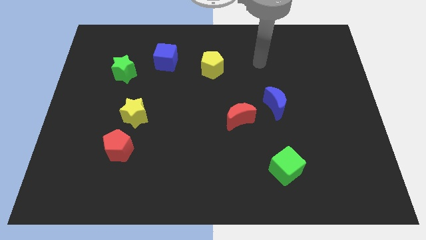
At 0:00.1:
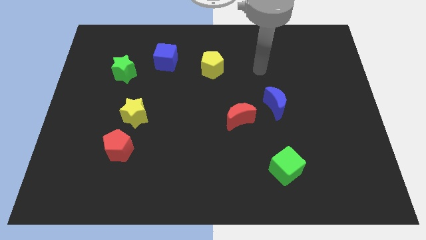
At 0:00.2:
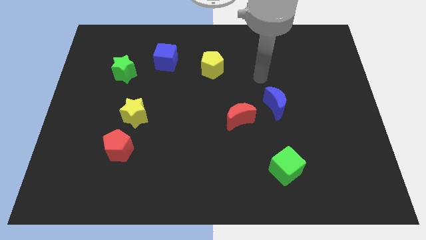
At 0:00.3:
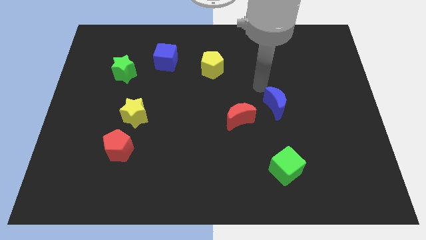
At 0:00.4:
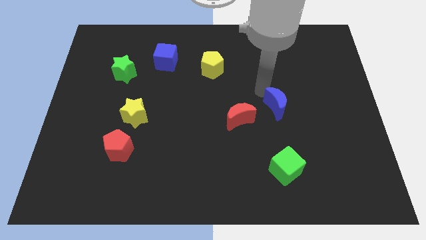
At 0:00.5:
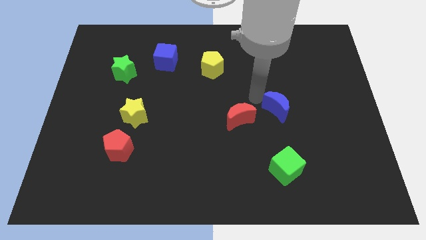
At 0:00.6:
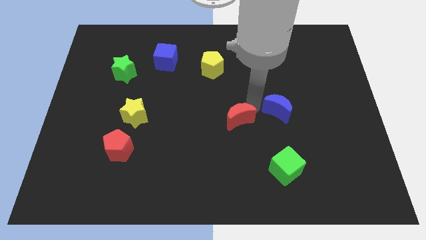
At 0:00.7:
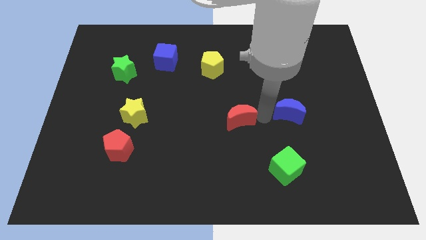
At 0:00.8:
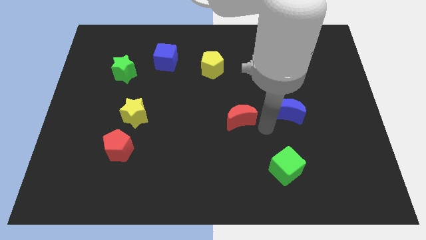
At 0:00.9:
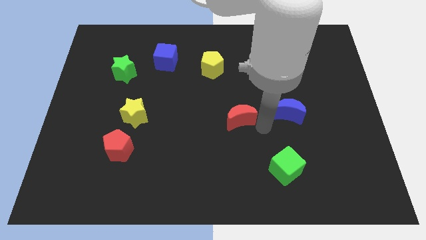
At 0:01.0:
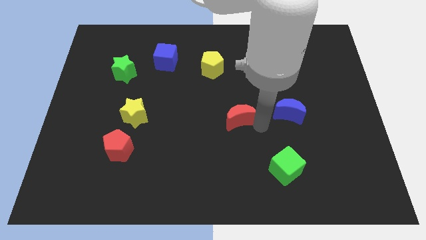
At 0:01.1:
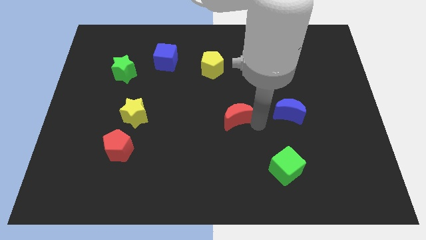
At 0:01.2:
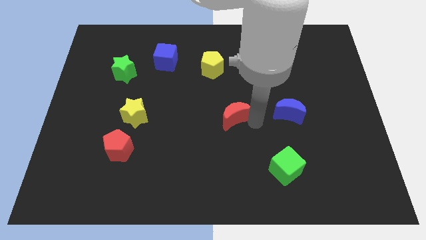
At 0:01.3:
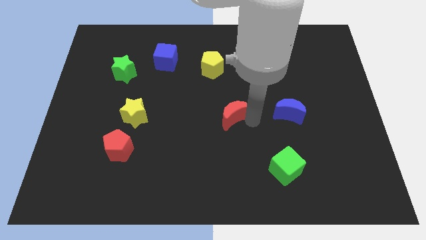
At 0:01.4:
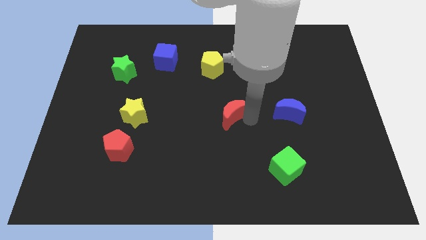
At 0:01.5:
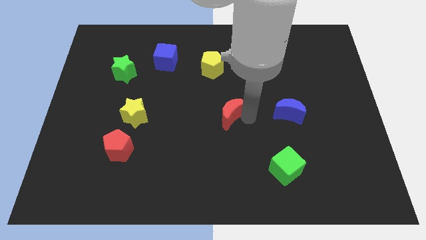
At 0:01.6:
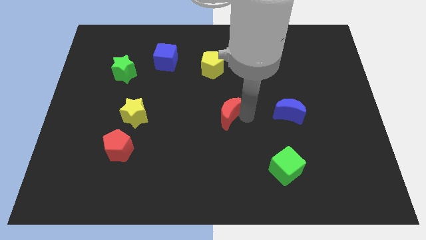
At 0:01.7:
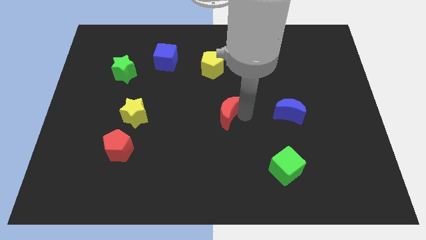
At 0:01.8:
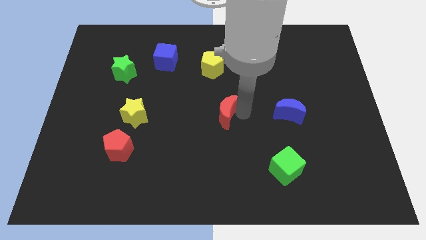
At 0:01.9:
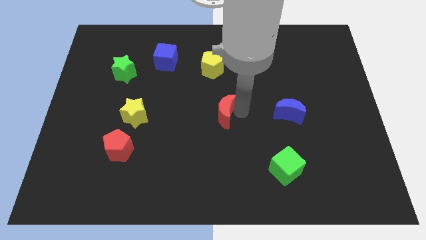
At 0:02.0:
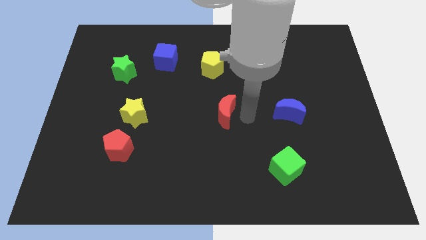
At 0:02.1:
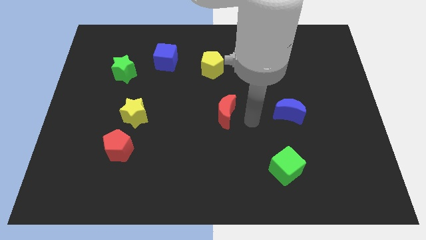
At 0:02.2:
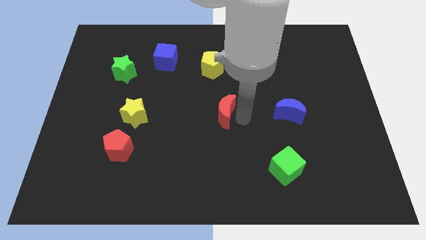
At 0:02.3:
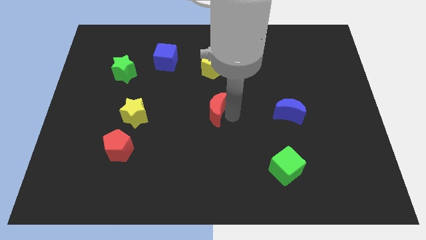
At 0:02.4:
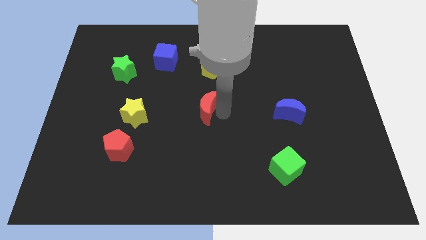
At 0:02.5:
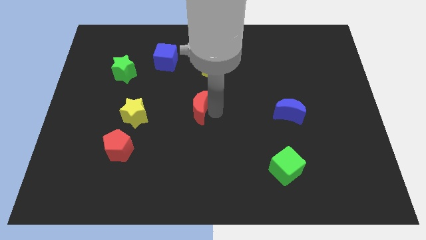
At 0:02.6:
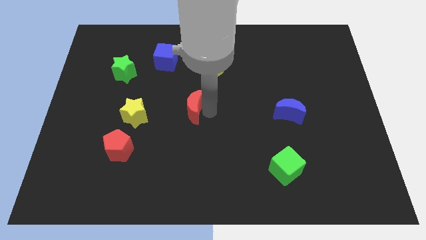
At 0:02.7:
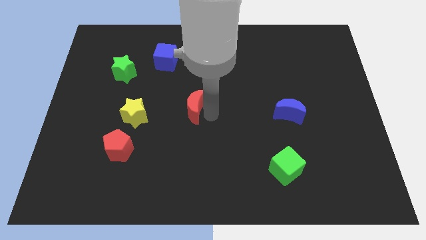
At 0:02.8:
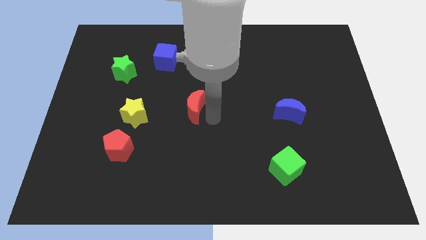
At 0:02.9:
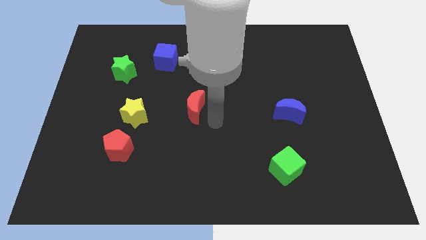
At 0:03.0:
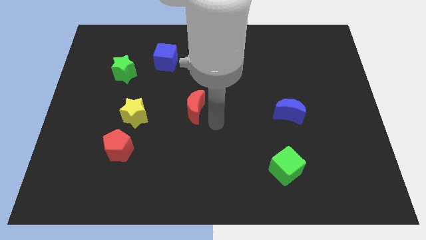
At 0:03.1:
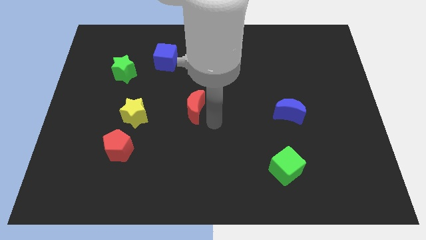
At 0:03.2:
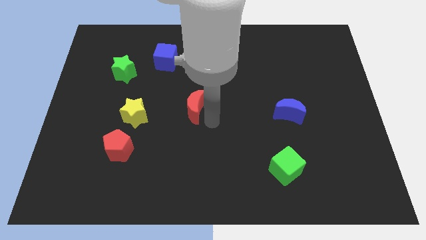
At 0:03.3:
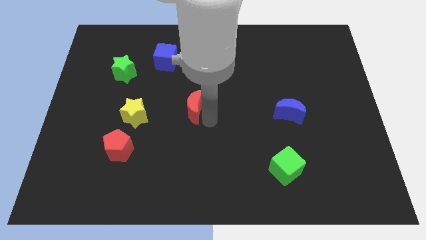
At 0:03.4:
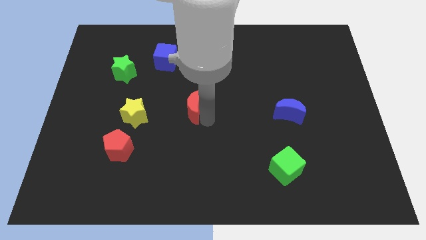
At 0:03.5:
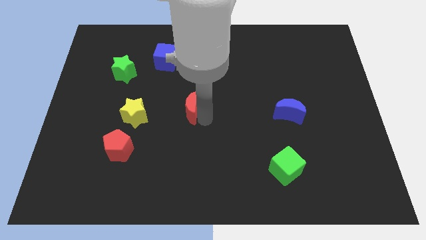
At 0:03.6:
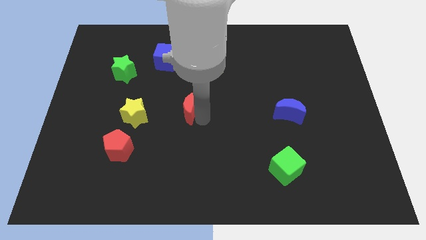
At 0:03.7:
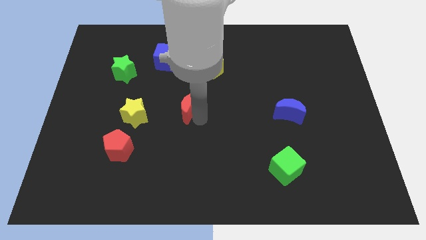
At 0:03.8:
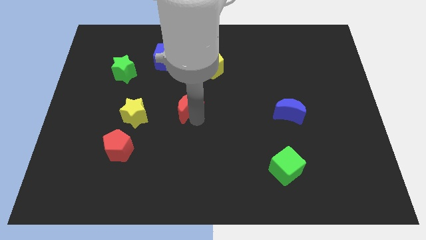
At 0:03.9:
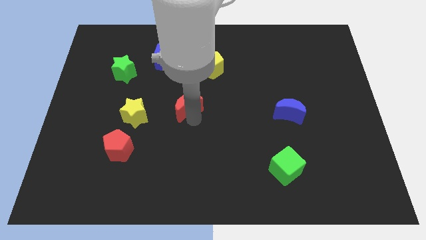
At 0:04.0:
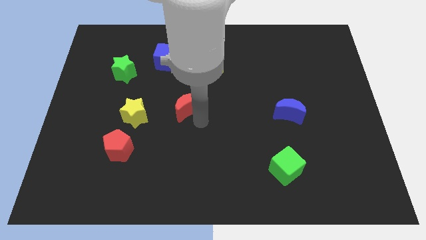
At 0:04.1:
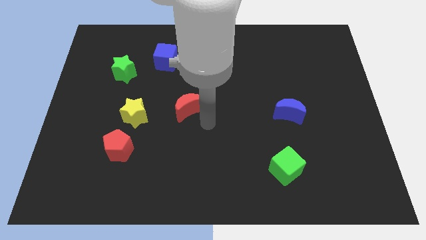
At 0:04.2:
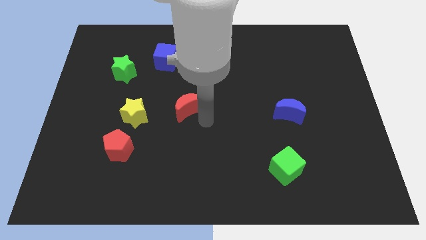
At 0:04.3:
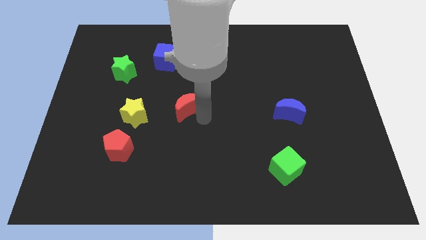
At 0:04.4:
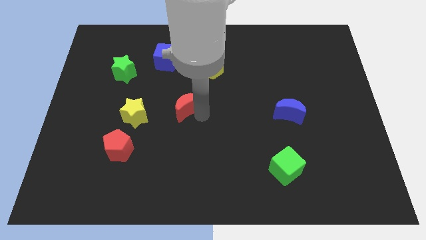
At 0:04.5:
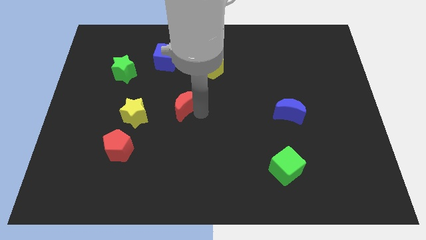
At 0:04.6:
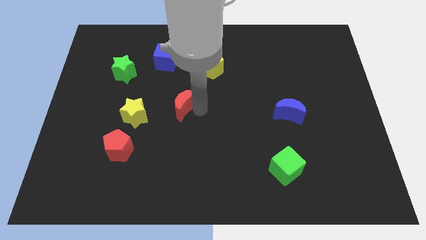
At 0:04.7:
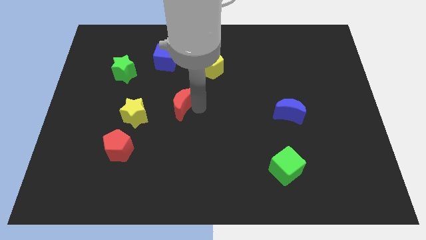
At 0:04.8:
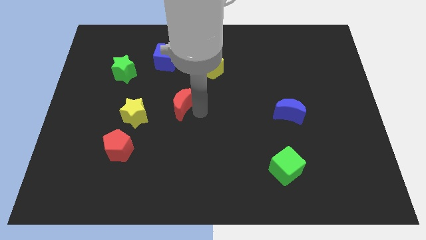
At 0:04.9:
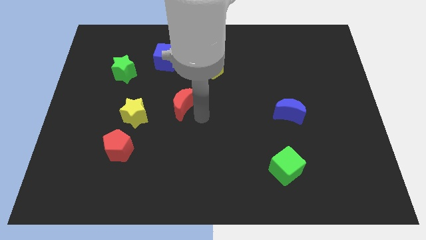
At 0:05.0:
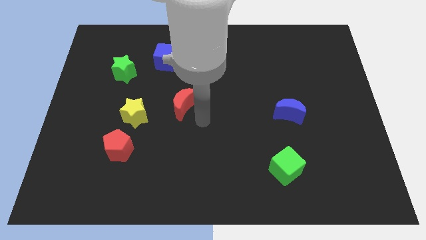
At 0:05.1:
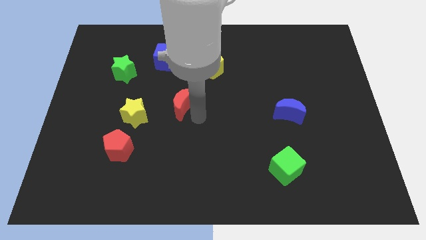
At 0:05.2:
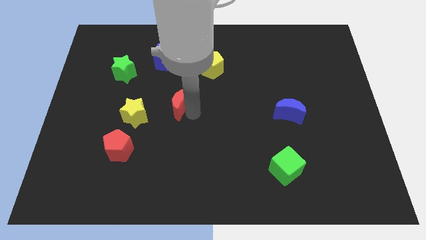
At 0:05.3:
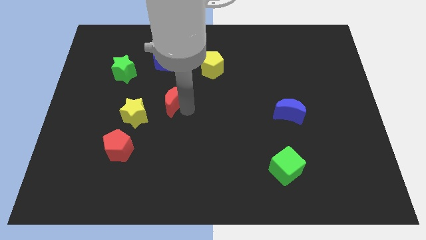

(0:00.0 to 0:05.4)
slide the red moon to the bottom side of the blue cube

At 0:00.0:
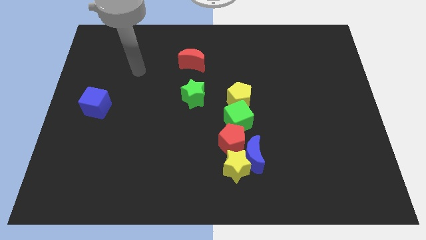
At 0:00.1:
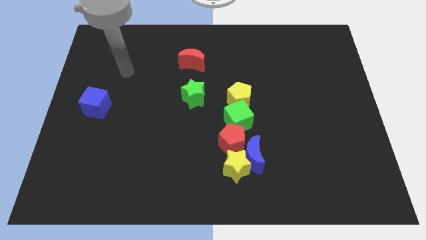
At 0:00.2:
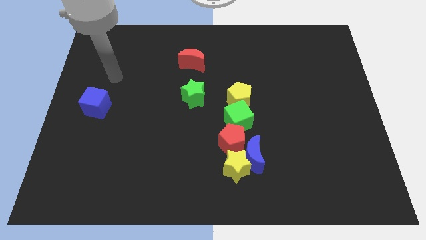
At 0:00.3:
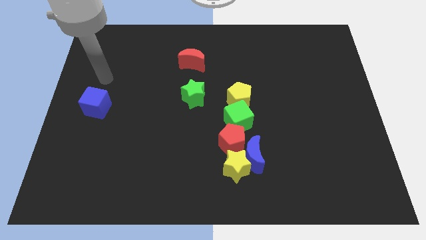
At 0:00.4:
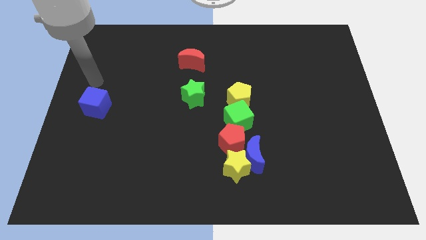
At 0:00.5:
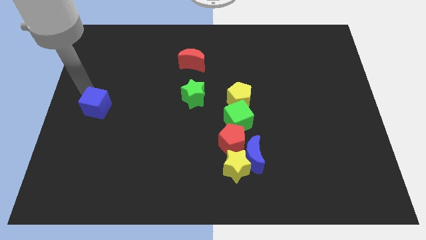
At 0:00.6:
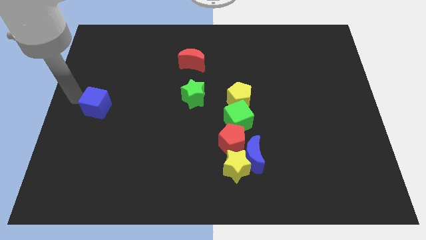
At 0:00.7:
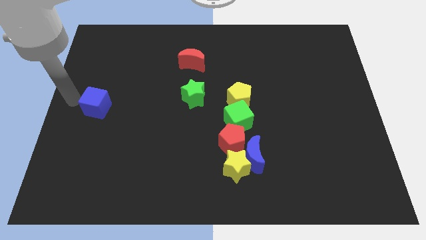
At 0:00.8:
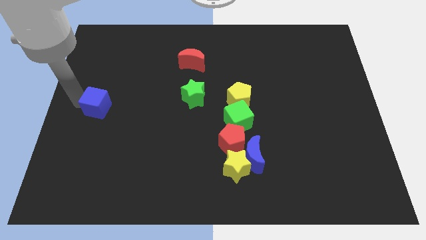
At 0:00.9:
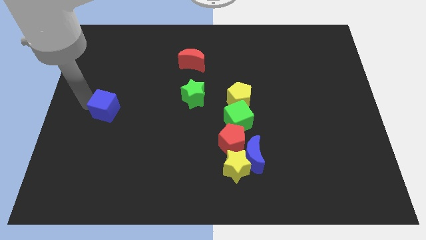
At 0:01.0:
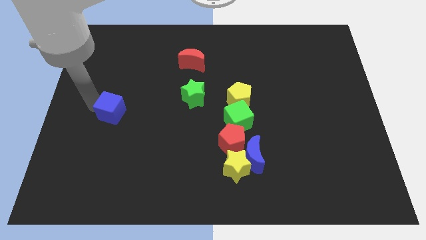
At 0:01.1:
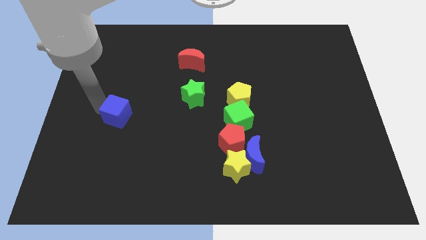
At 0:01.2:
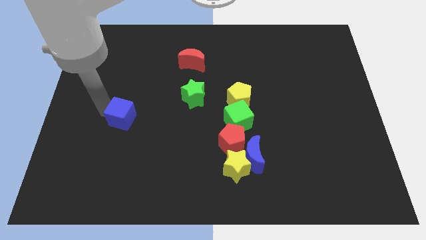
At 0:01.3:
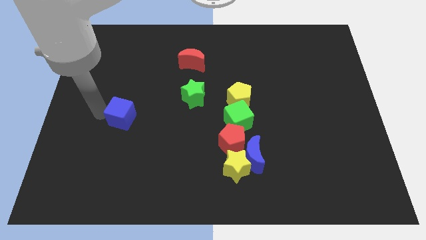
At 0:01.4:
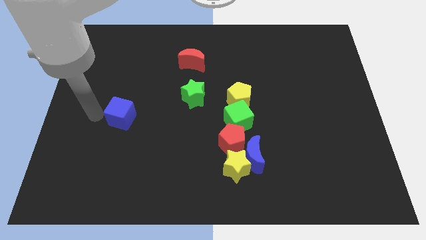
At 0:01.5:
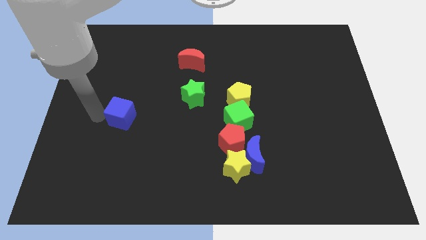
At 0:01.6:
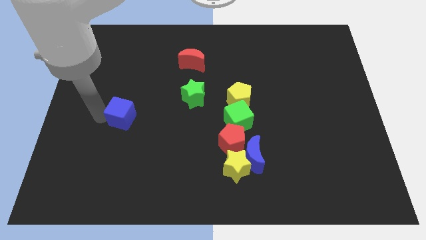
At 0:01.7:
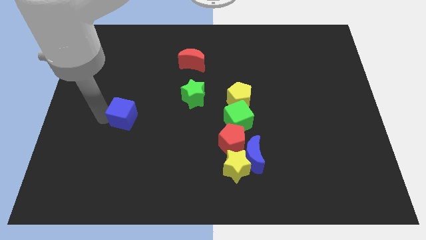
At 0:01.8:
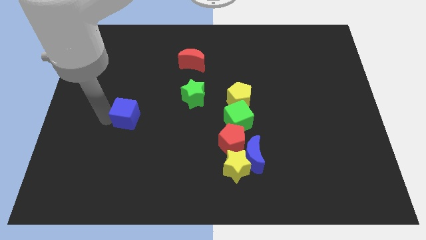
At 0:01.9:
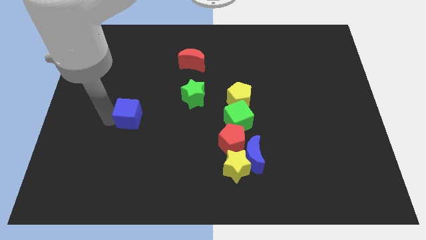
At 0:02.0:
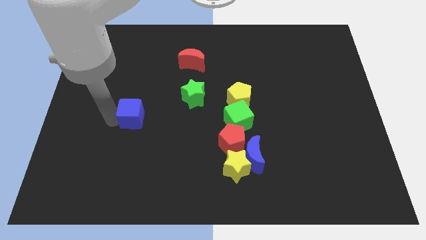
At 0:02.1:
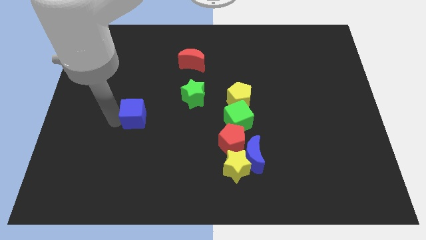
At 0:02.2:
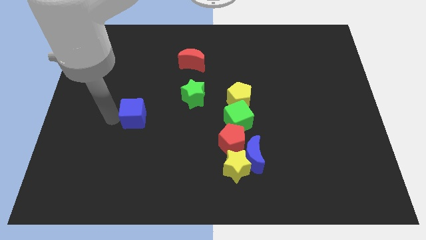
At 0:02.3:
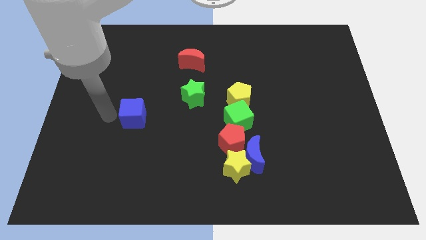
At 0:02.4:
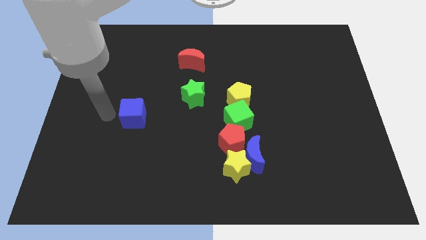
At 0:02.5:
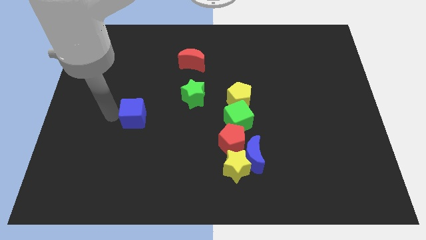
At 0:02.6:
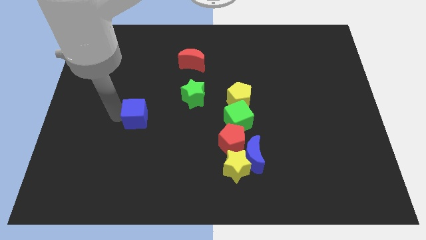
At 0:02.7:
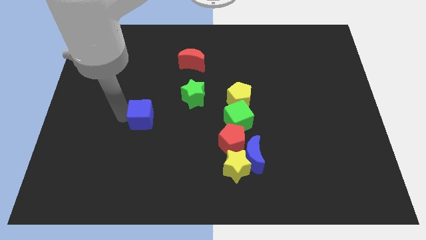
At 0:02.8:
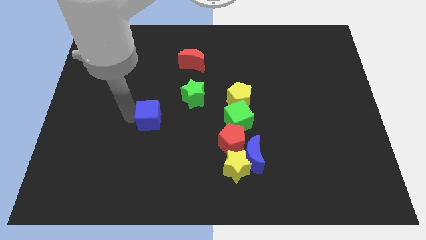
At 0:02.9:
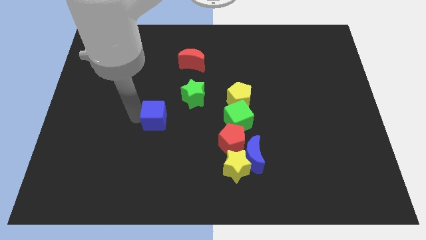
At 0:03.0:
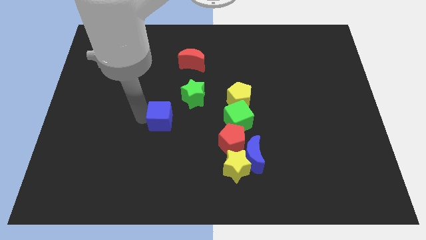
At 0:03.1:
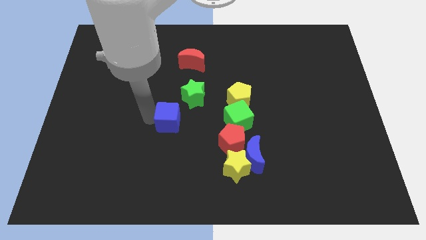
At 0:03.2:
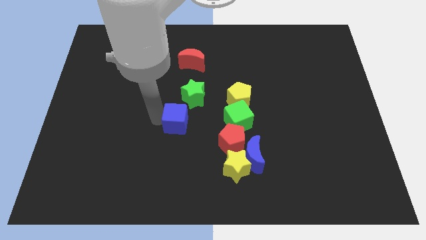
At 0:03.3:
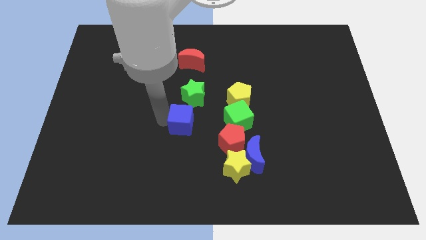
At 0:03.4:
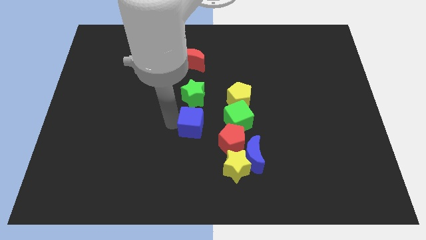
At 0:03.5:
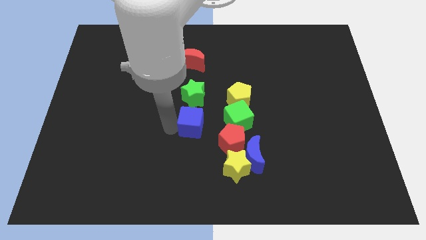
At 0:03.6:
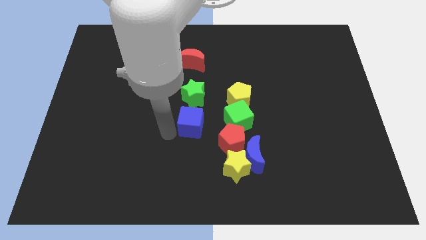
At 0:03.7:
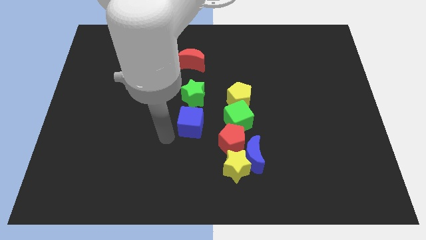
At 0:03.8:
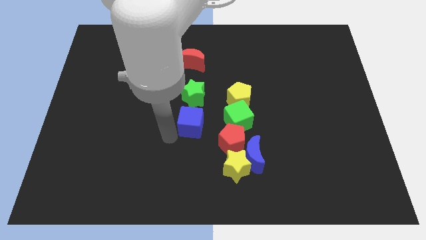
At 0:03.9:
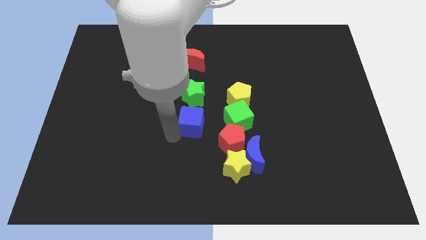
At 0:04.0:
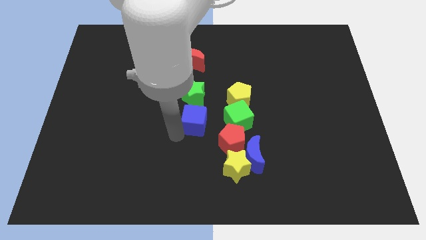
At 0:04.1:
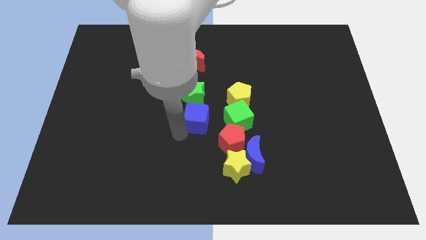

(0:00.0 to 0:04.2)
move the blue cube diagonally down and to the right of the green star
